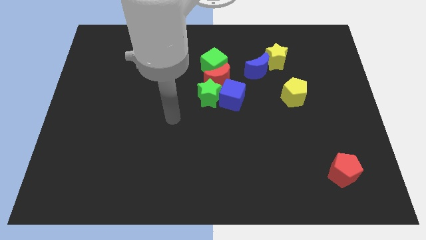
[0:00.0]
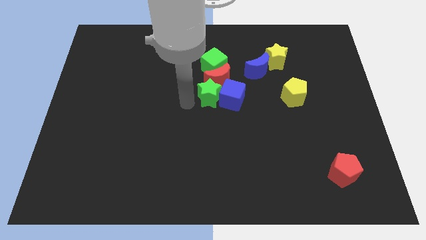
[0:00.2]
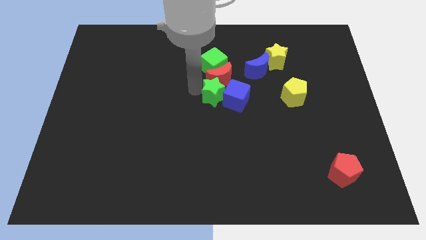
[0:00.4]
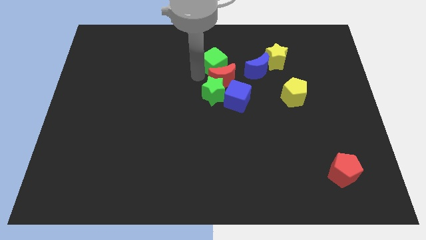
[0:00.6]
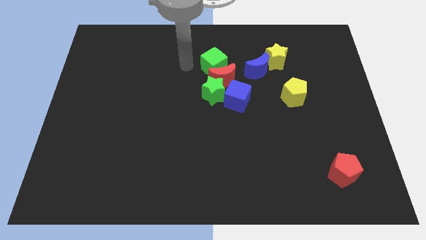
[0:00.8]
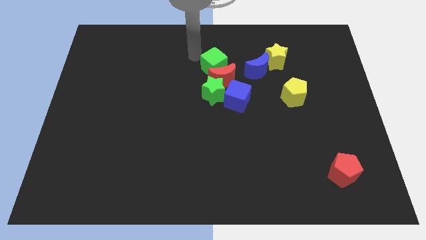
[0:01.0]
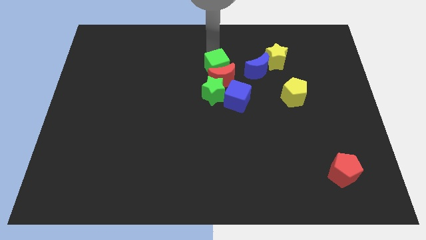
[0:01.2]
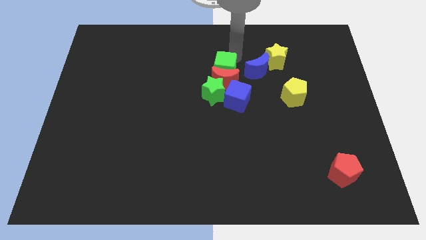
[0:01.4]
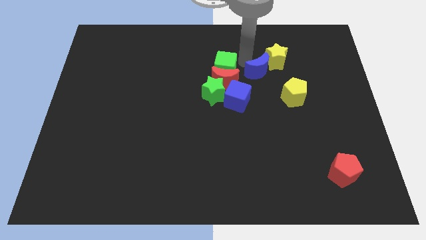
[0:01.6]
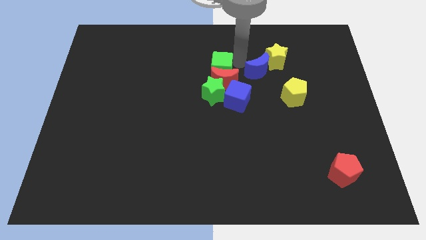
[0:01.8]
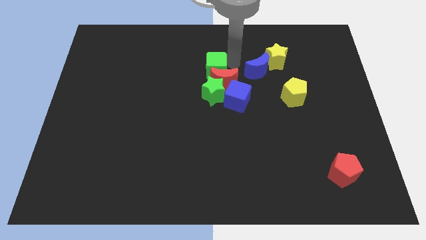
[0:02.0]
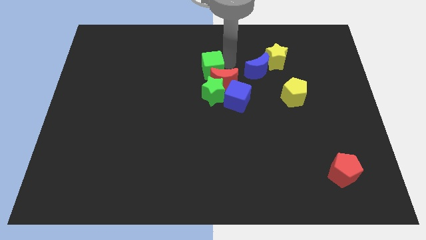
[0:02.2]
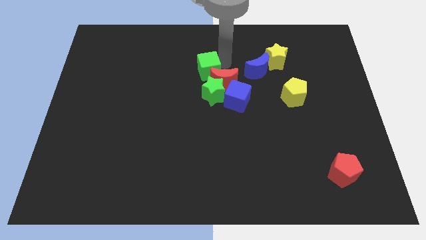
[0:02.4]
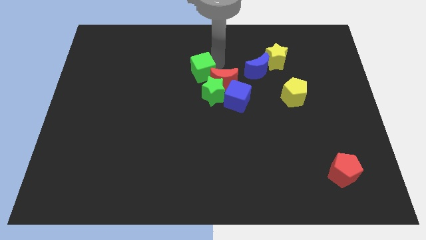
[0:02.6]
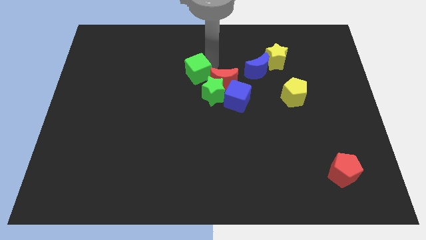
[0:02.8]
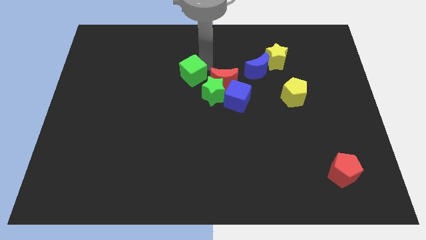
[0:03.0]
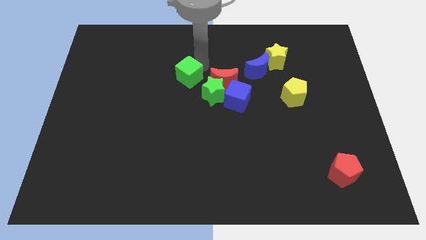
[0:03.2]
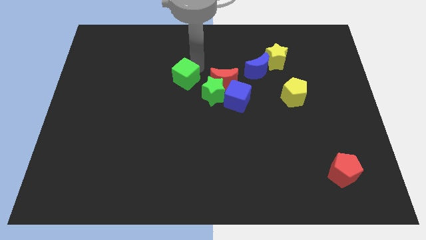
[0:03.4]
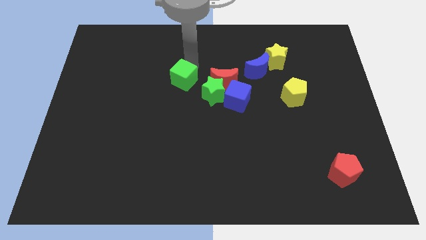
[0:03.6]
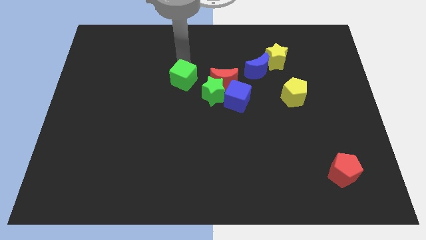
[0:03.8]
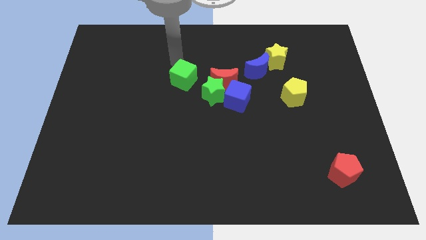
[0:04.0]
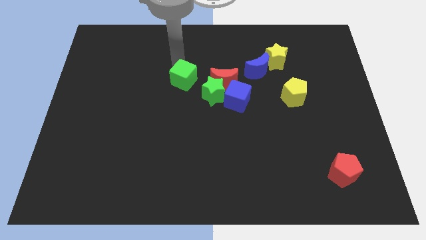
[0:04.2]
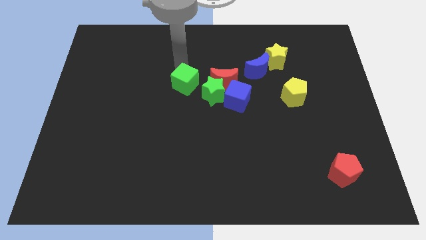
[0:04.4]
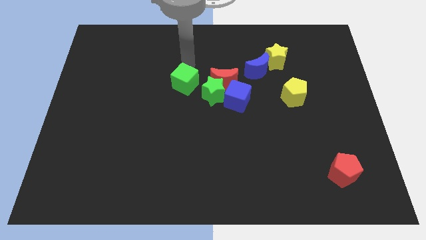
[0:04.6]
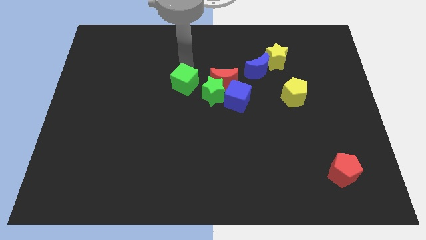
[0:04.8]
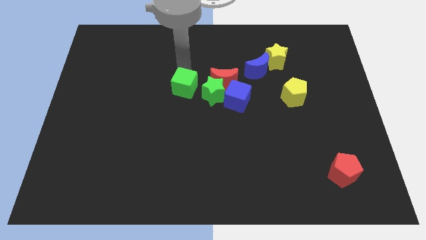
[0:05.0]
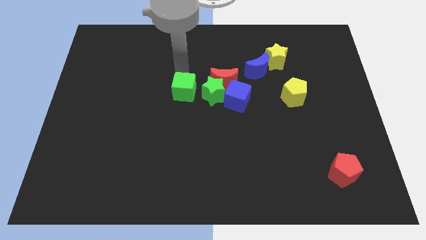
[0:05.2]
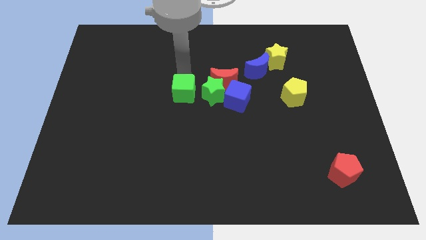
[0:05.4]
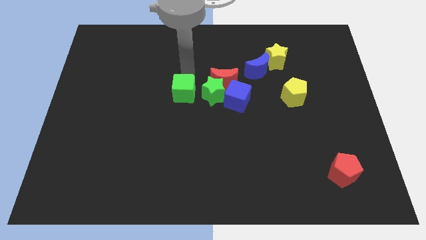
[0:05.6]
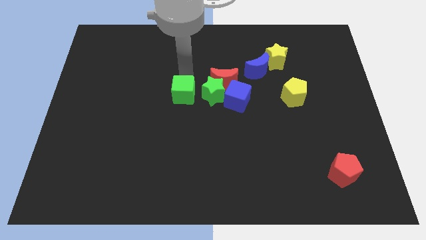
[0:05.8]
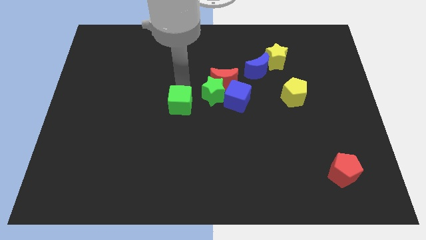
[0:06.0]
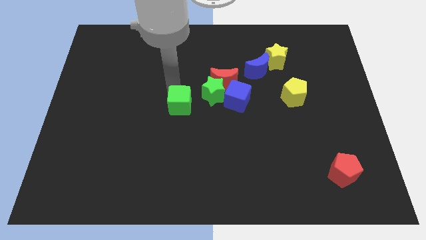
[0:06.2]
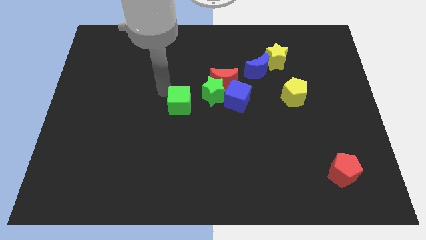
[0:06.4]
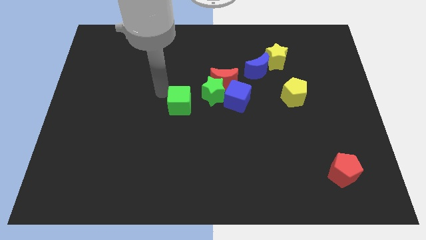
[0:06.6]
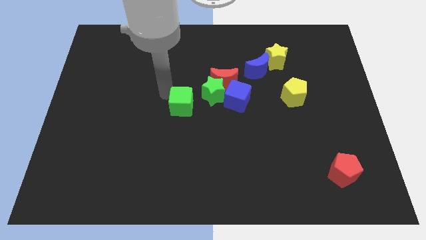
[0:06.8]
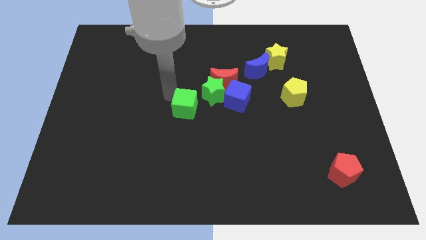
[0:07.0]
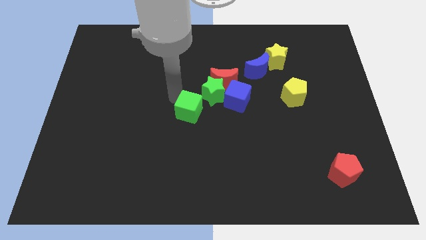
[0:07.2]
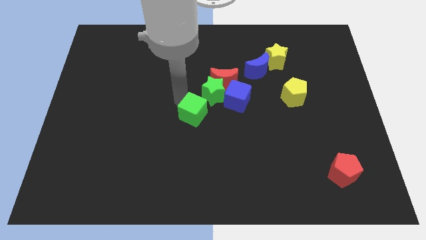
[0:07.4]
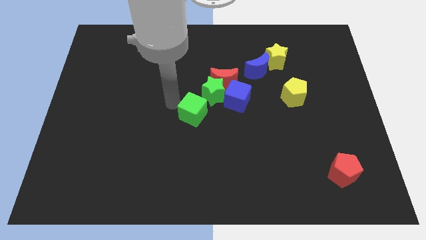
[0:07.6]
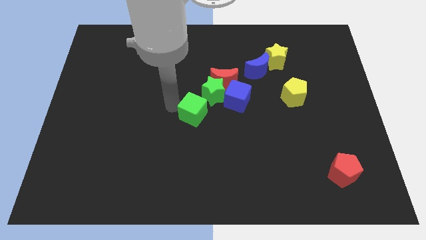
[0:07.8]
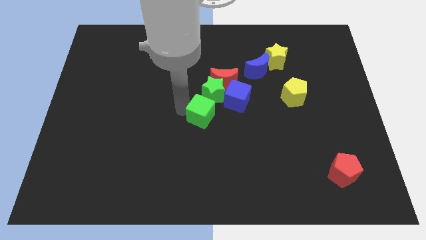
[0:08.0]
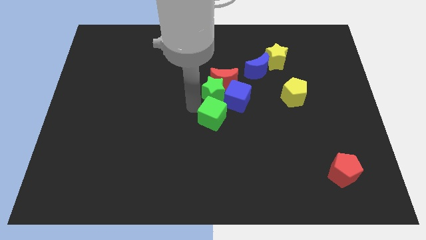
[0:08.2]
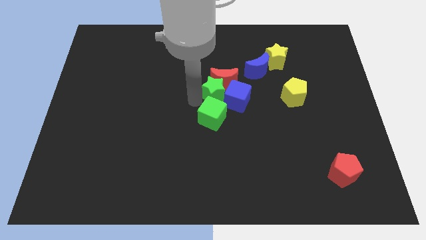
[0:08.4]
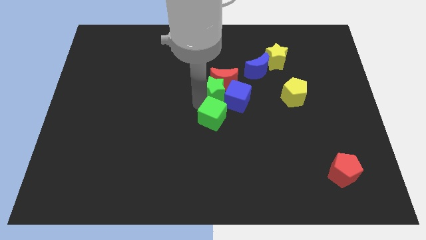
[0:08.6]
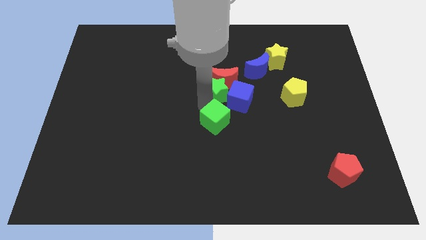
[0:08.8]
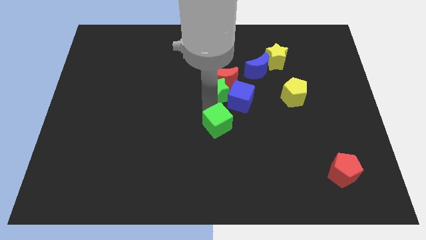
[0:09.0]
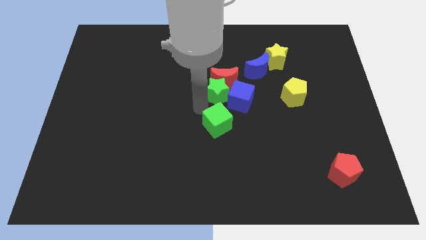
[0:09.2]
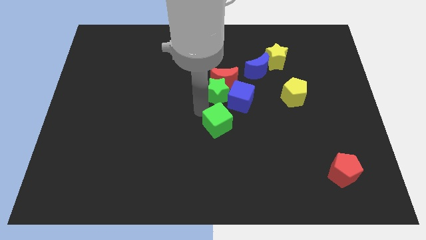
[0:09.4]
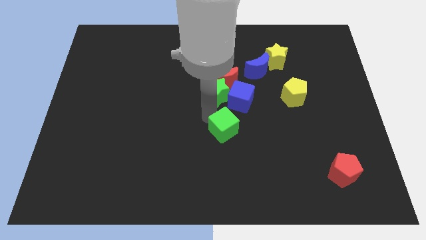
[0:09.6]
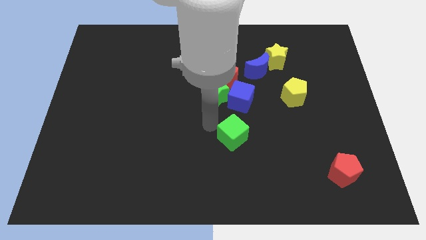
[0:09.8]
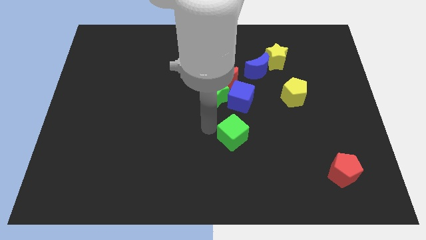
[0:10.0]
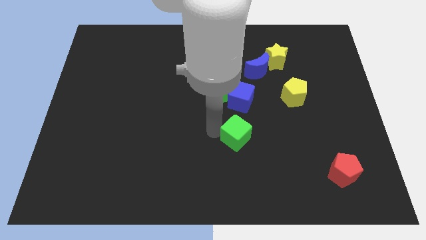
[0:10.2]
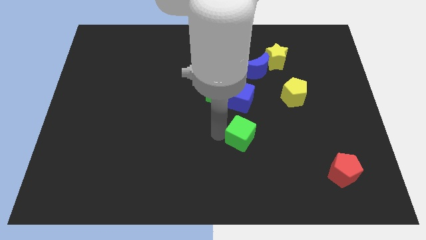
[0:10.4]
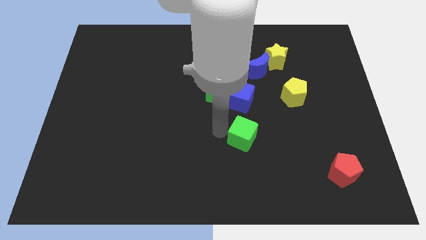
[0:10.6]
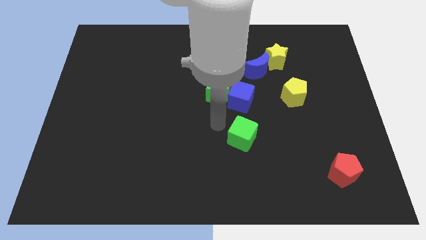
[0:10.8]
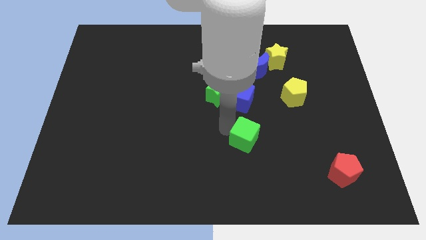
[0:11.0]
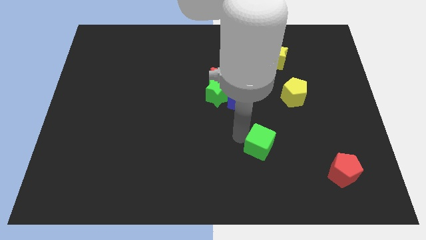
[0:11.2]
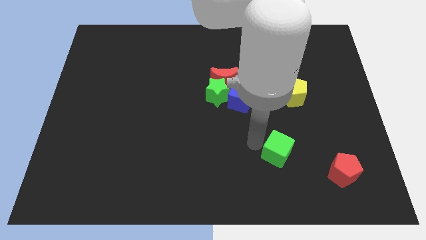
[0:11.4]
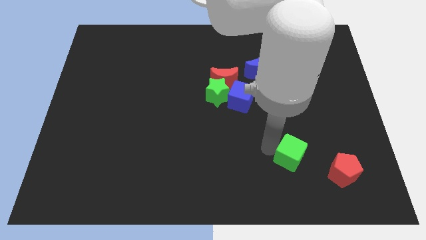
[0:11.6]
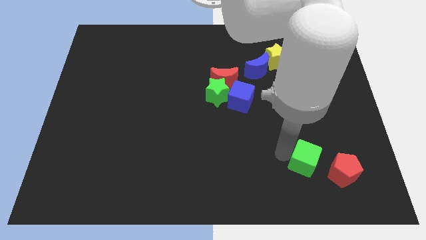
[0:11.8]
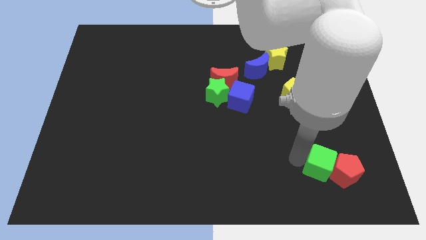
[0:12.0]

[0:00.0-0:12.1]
push the green cube next to the red pentagon

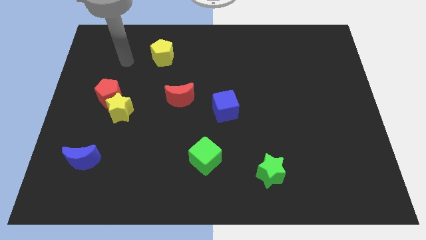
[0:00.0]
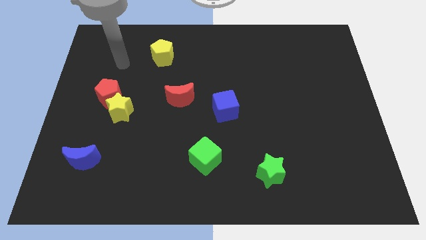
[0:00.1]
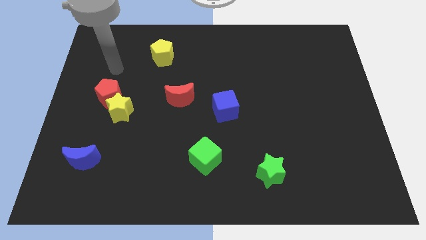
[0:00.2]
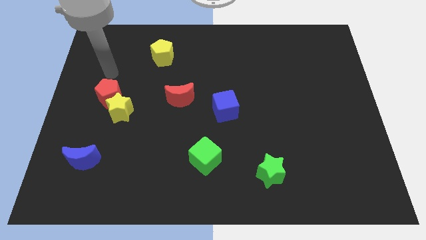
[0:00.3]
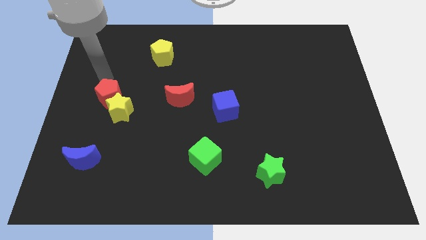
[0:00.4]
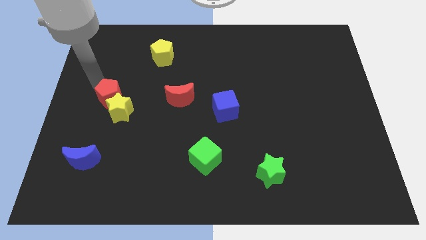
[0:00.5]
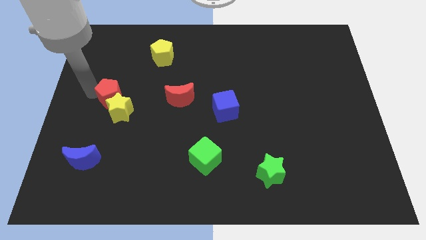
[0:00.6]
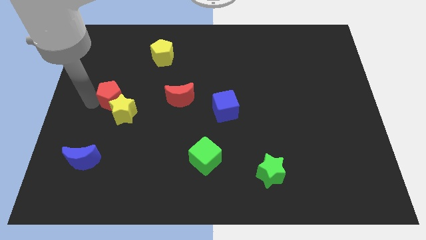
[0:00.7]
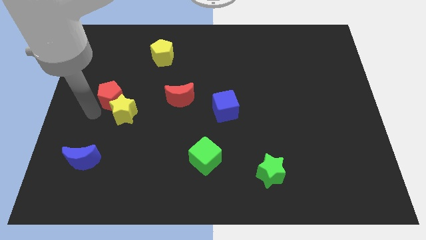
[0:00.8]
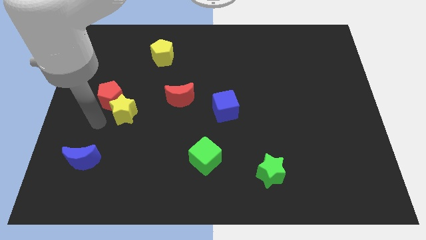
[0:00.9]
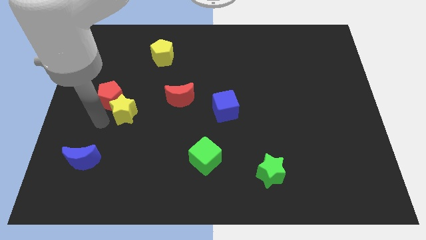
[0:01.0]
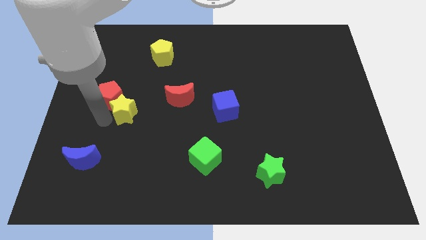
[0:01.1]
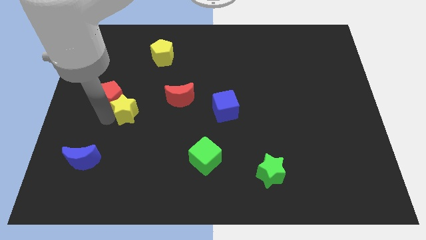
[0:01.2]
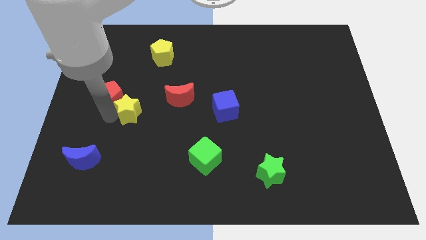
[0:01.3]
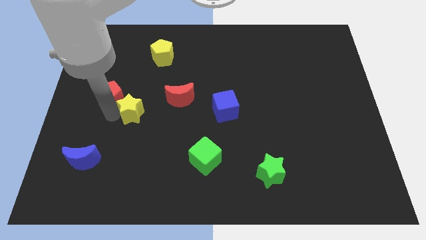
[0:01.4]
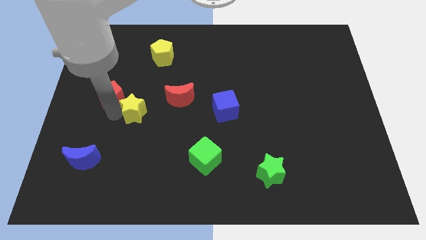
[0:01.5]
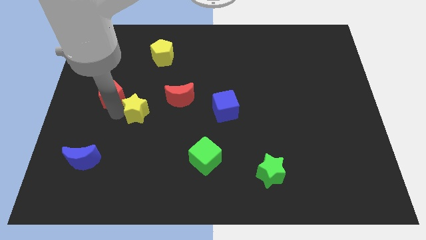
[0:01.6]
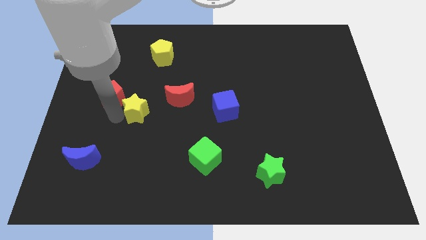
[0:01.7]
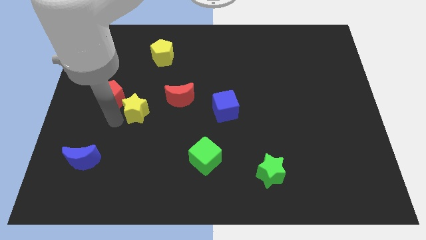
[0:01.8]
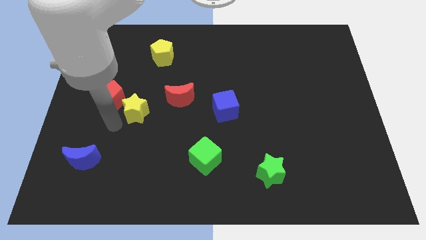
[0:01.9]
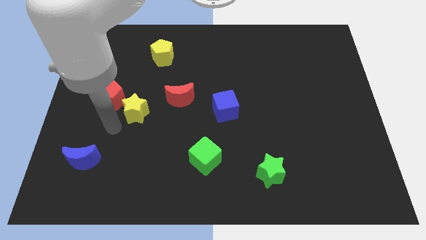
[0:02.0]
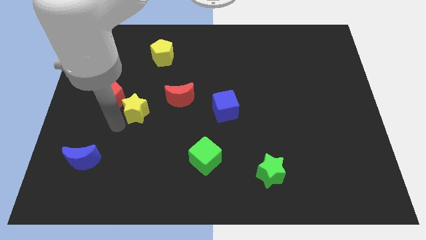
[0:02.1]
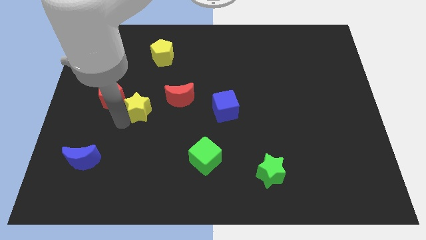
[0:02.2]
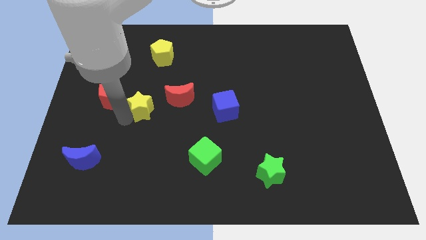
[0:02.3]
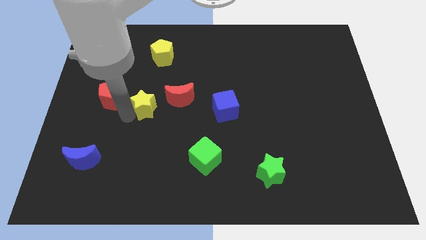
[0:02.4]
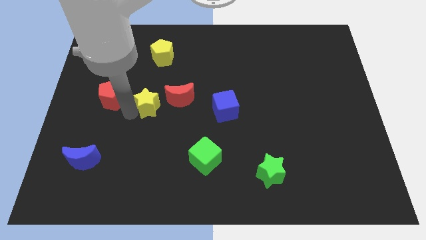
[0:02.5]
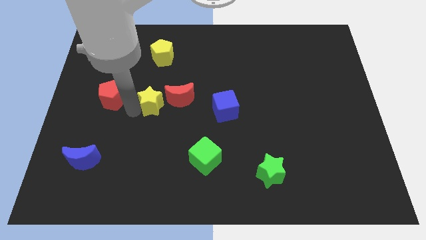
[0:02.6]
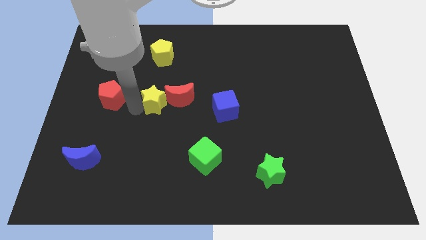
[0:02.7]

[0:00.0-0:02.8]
push the yellow star close to the red moon
